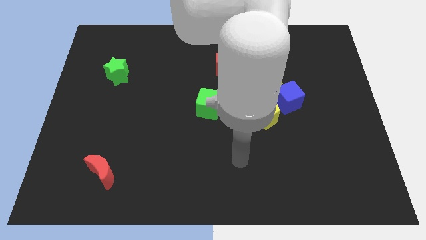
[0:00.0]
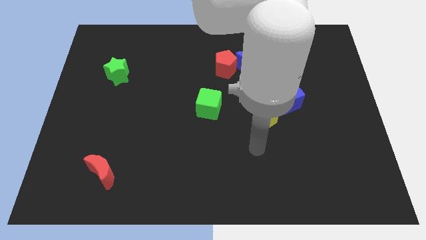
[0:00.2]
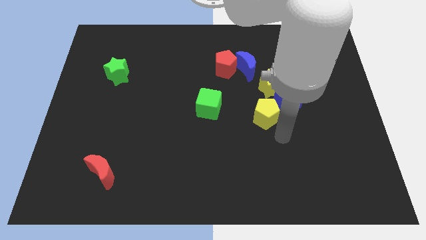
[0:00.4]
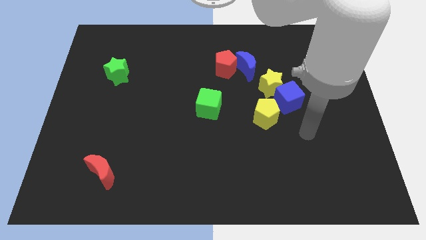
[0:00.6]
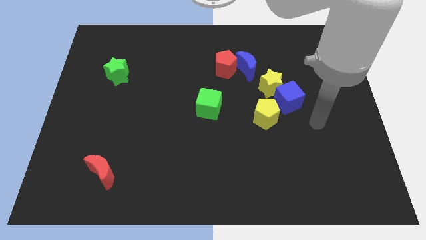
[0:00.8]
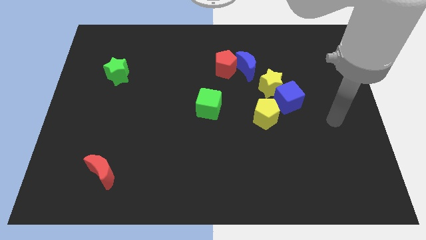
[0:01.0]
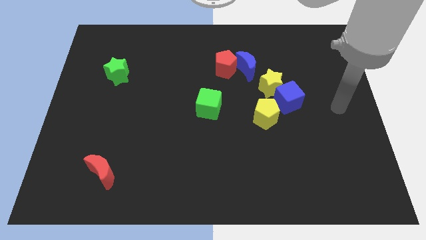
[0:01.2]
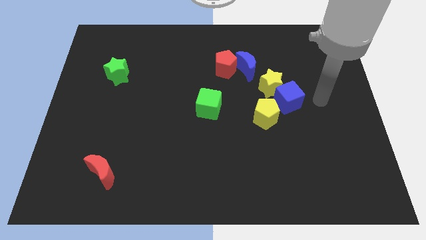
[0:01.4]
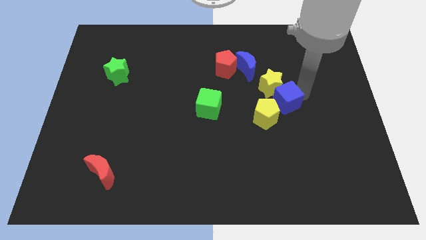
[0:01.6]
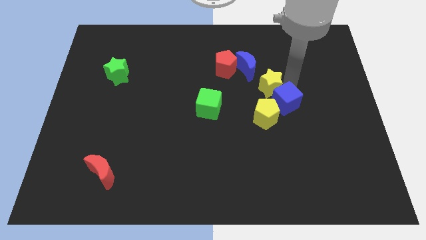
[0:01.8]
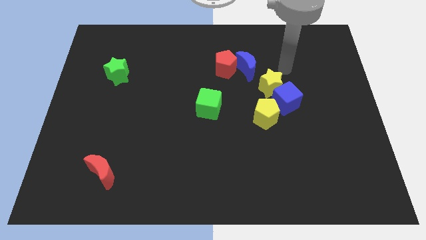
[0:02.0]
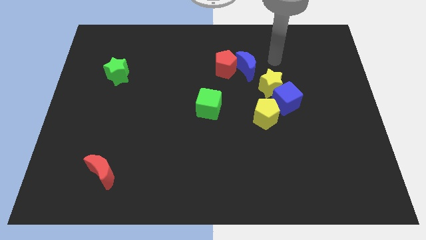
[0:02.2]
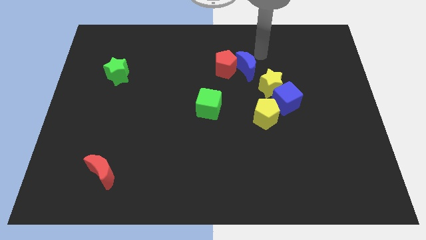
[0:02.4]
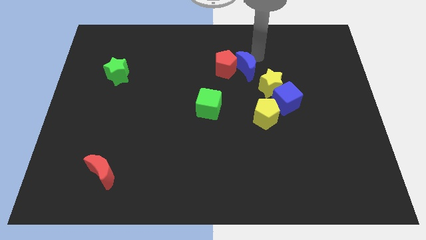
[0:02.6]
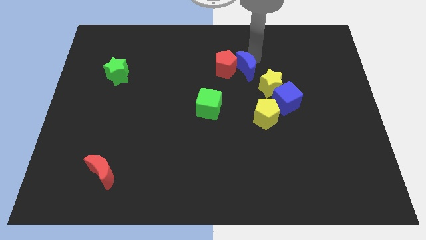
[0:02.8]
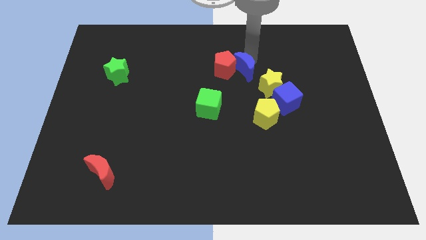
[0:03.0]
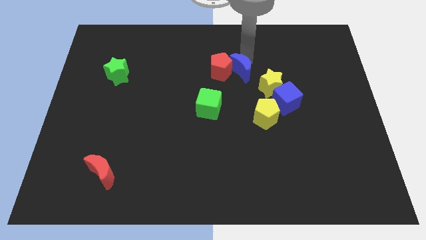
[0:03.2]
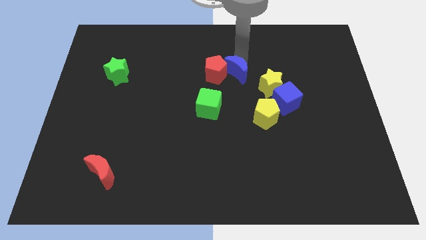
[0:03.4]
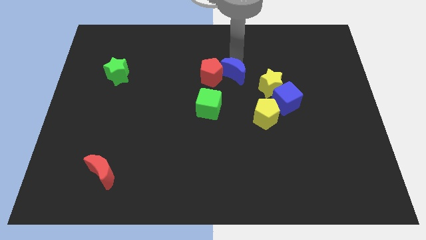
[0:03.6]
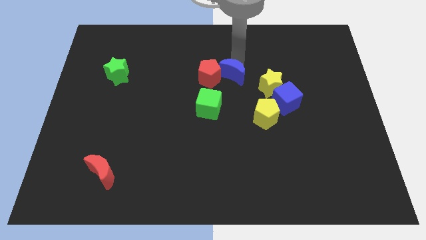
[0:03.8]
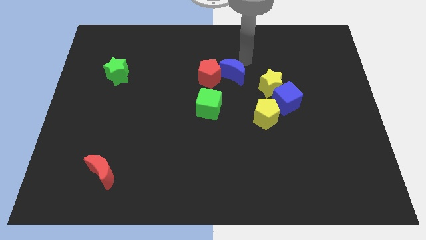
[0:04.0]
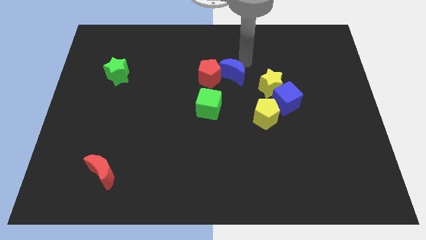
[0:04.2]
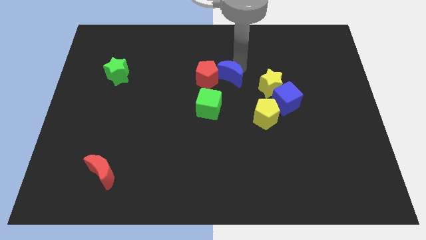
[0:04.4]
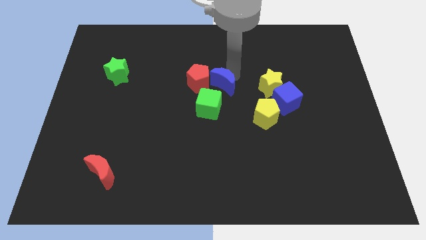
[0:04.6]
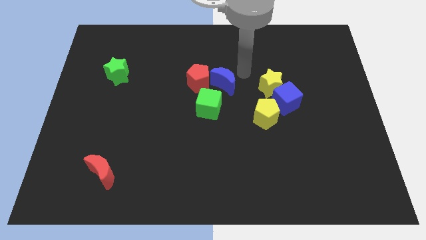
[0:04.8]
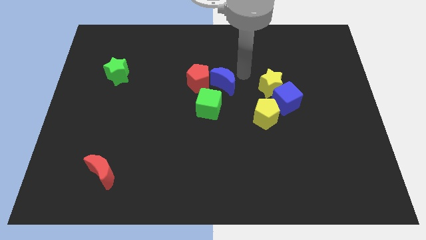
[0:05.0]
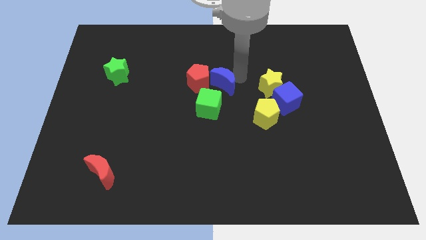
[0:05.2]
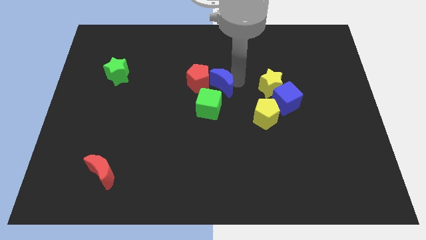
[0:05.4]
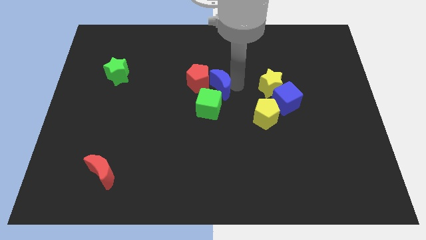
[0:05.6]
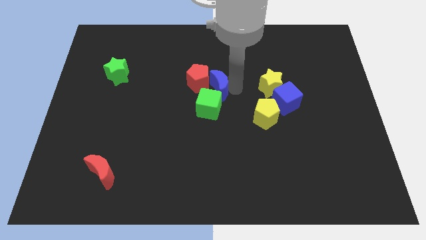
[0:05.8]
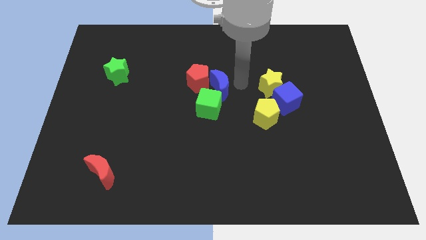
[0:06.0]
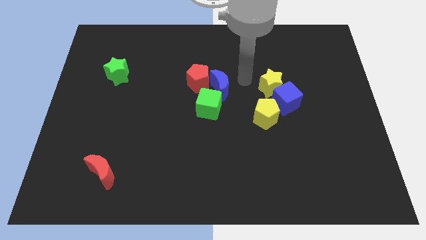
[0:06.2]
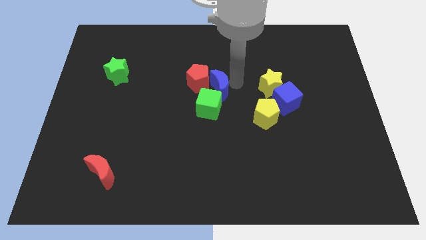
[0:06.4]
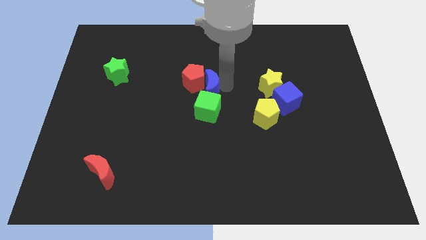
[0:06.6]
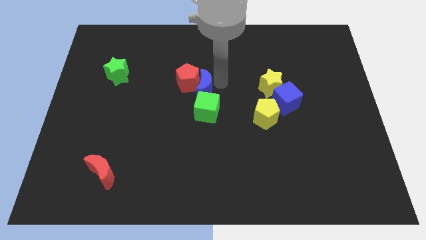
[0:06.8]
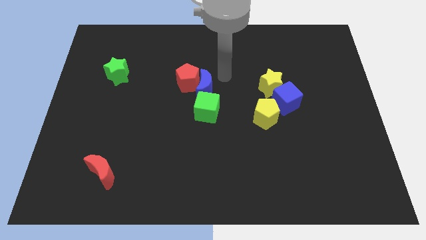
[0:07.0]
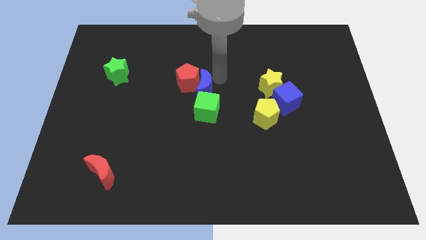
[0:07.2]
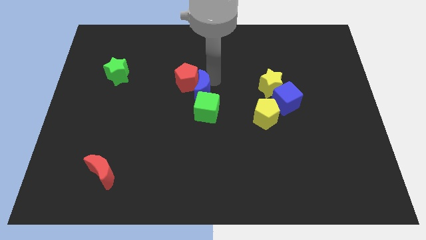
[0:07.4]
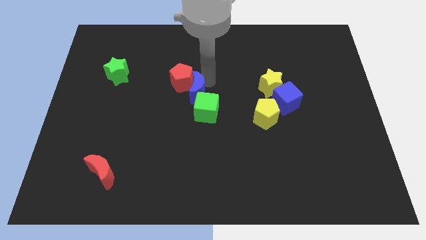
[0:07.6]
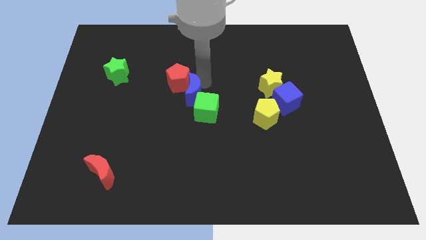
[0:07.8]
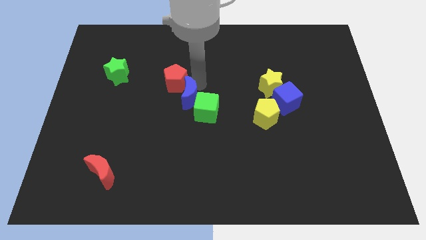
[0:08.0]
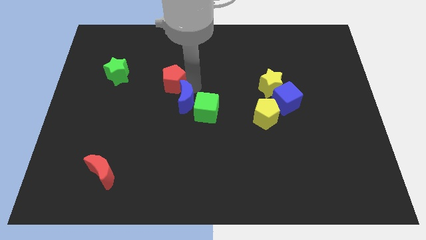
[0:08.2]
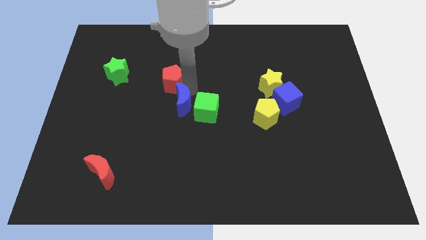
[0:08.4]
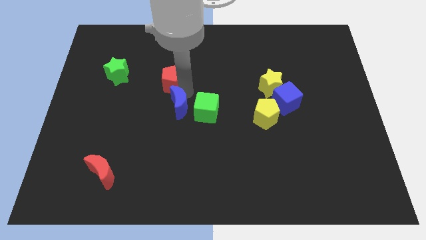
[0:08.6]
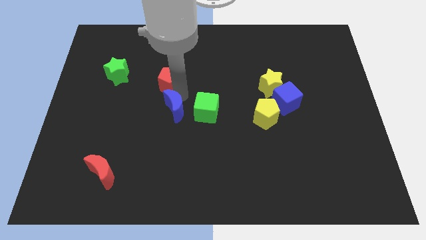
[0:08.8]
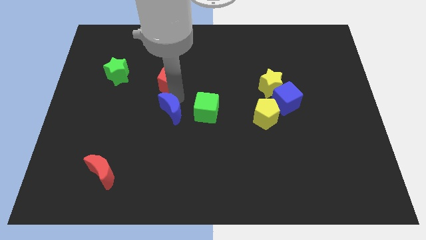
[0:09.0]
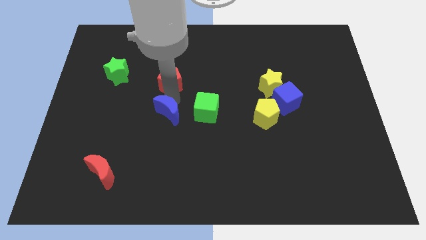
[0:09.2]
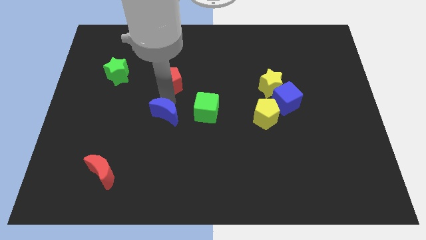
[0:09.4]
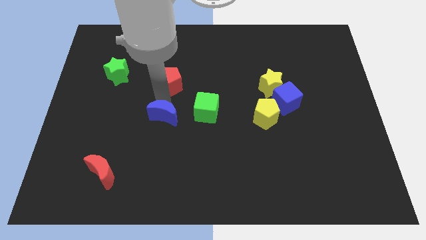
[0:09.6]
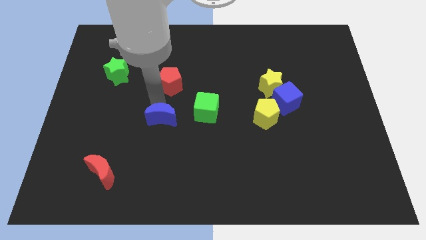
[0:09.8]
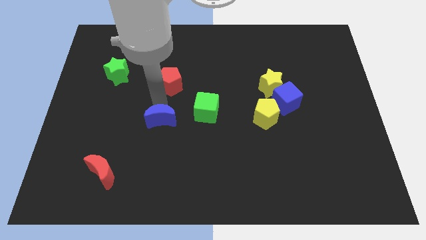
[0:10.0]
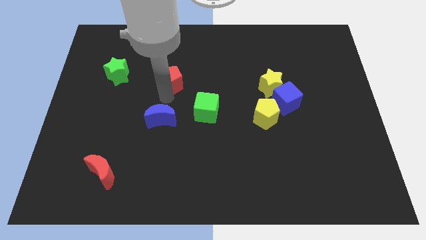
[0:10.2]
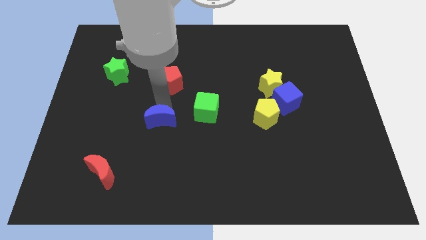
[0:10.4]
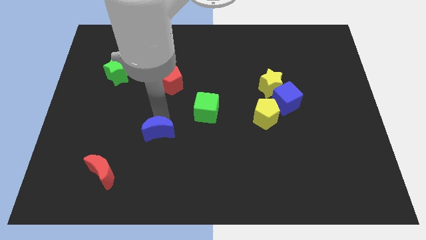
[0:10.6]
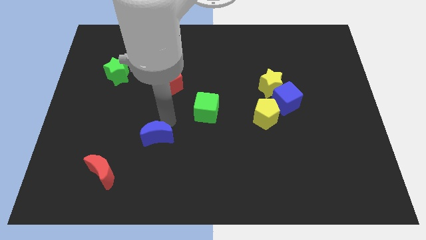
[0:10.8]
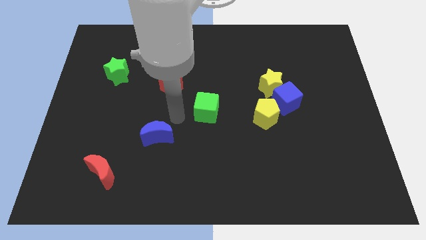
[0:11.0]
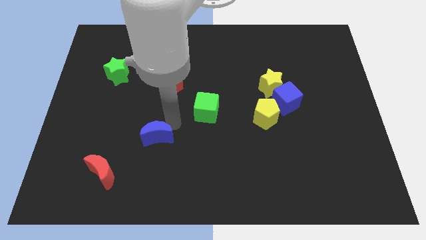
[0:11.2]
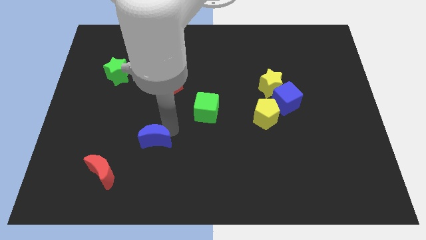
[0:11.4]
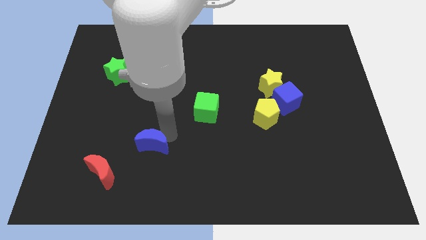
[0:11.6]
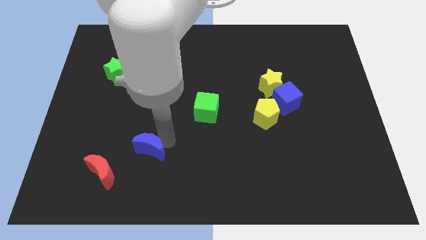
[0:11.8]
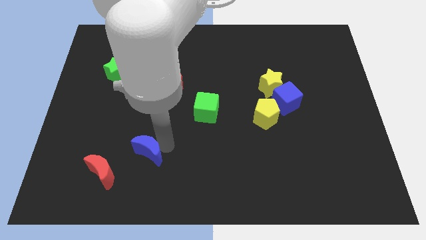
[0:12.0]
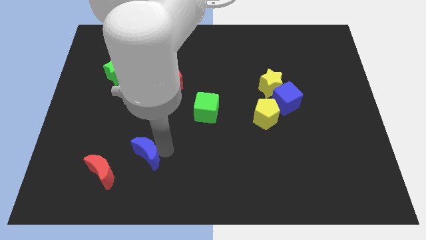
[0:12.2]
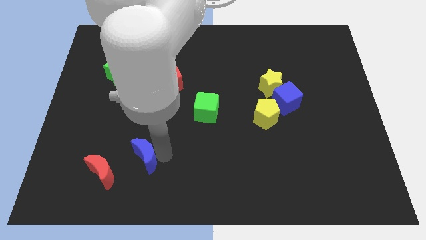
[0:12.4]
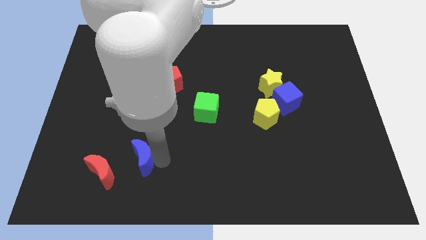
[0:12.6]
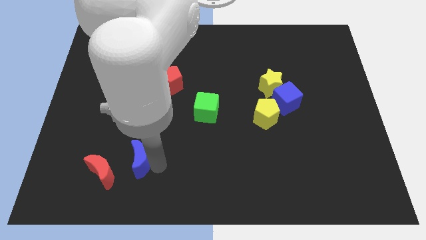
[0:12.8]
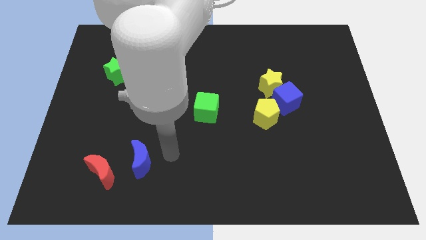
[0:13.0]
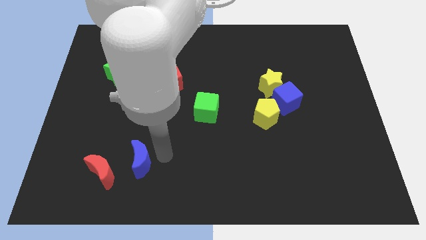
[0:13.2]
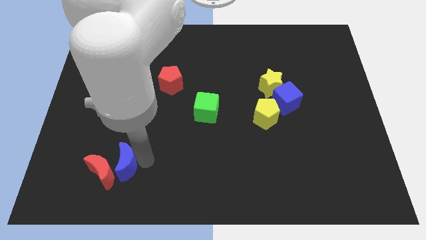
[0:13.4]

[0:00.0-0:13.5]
push the blue moon towards the red moon

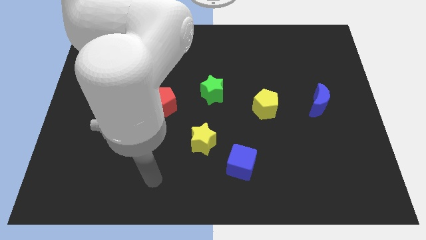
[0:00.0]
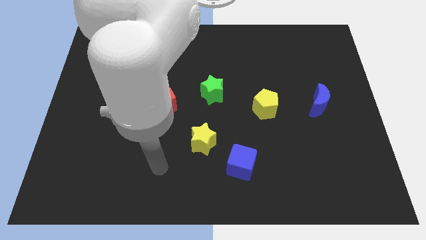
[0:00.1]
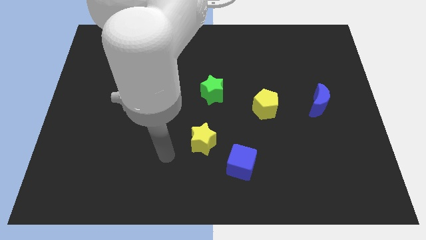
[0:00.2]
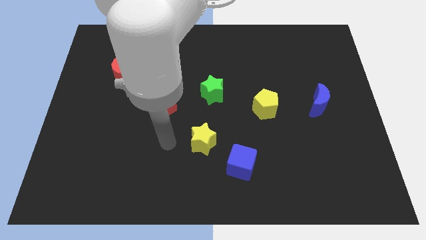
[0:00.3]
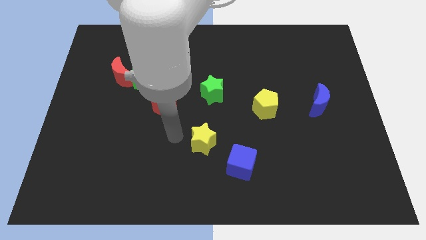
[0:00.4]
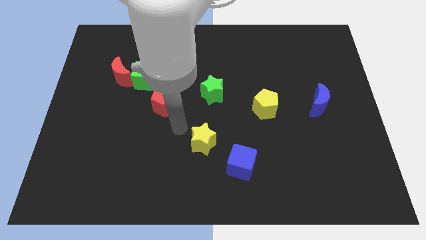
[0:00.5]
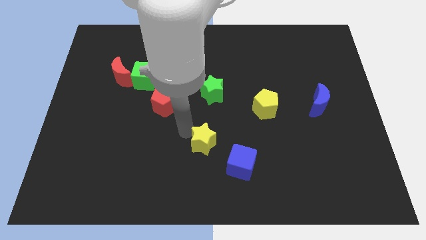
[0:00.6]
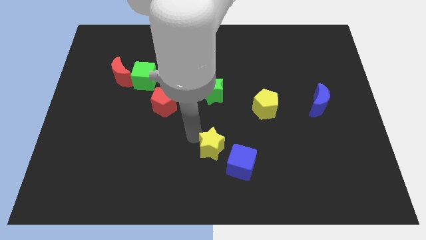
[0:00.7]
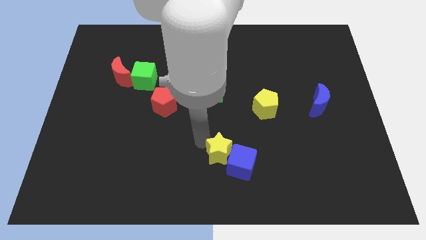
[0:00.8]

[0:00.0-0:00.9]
move the yellow star close to the blue cube
